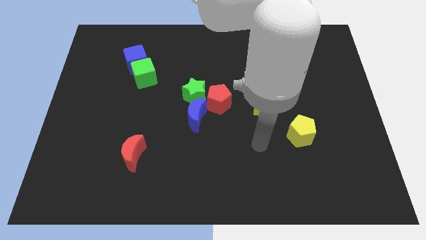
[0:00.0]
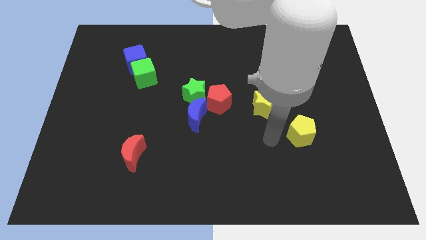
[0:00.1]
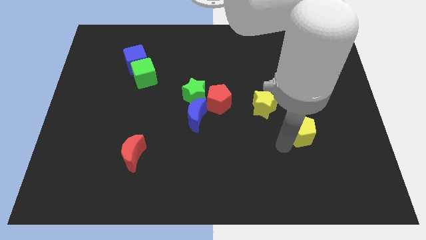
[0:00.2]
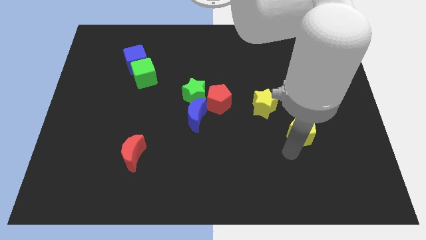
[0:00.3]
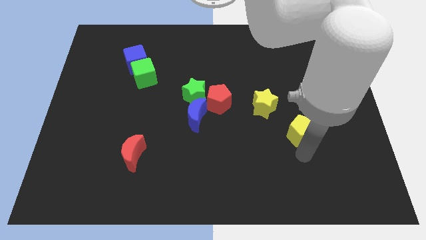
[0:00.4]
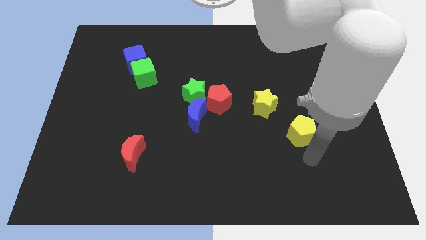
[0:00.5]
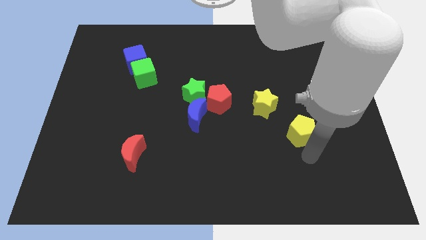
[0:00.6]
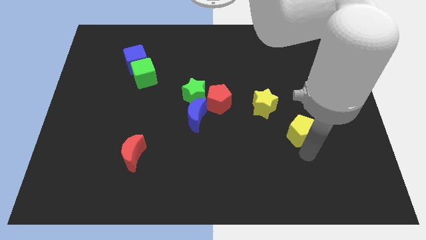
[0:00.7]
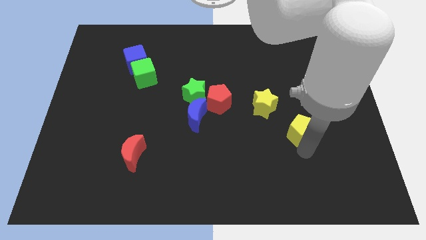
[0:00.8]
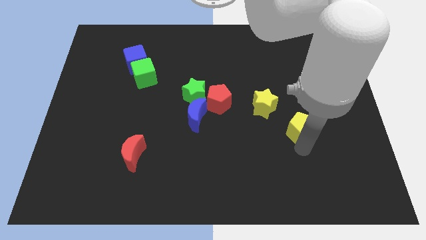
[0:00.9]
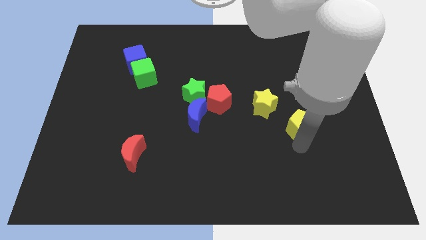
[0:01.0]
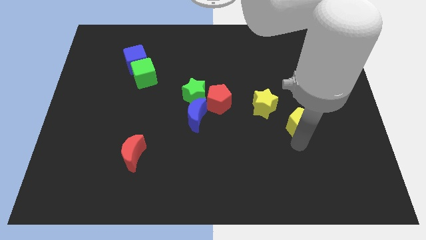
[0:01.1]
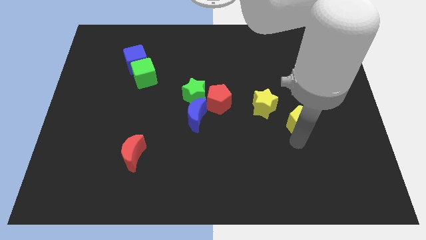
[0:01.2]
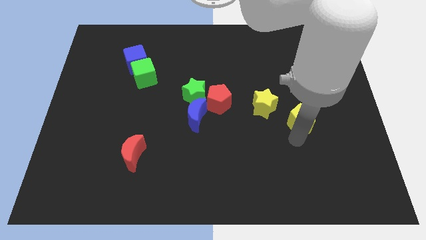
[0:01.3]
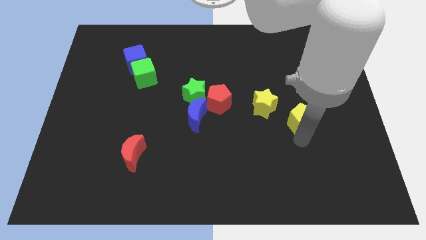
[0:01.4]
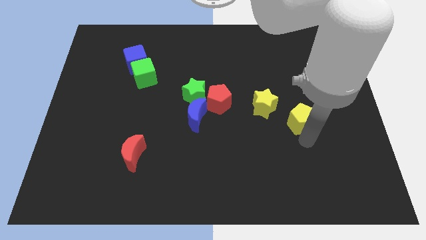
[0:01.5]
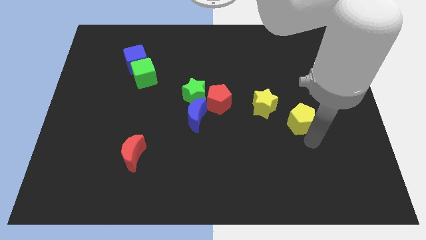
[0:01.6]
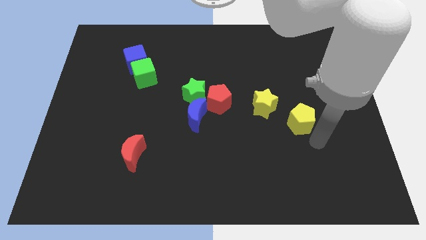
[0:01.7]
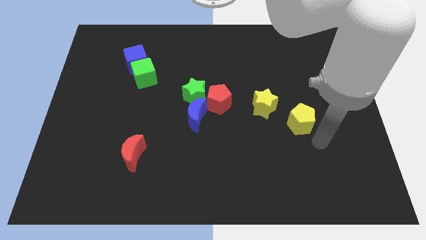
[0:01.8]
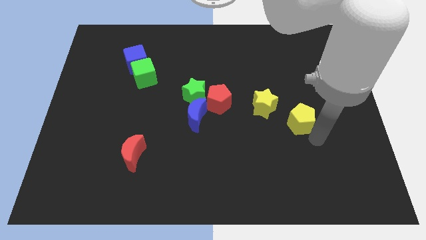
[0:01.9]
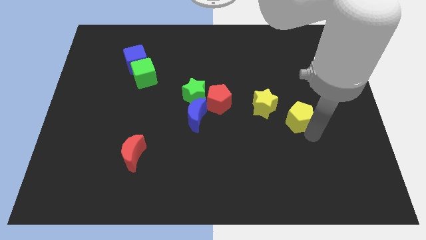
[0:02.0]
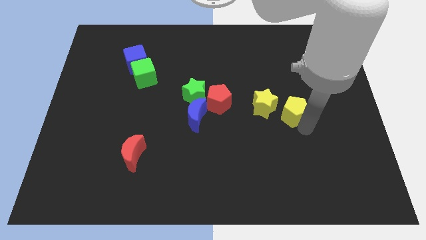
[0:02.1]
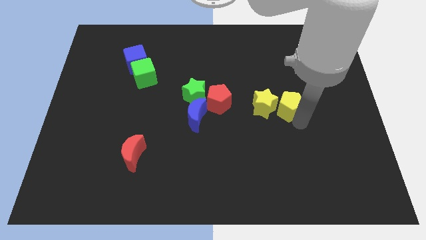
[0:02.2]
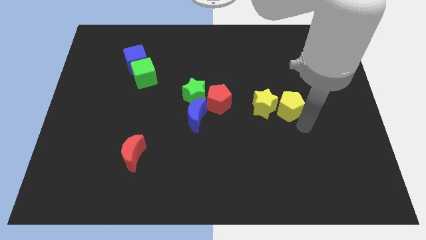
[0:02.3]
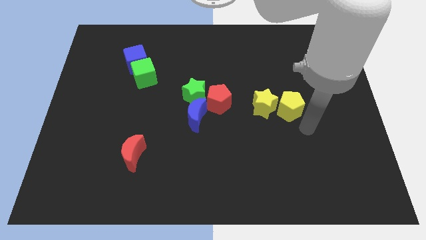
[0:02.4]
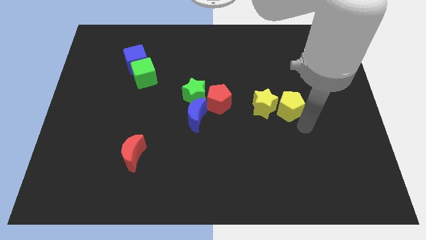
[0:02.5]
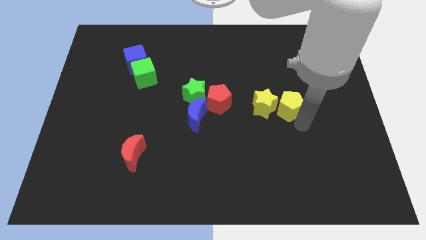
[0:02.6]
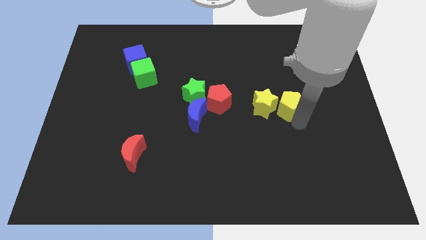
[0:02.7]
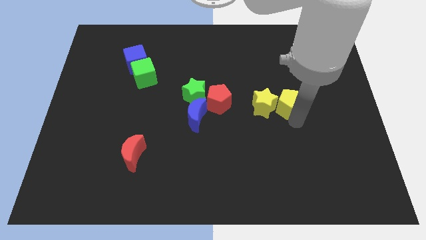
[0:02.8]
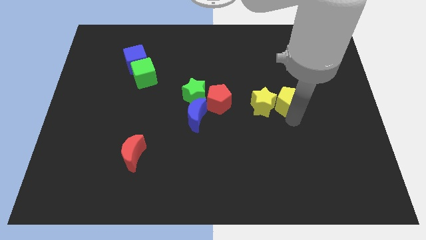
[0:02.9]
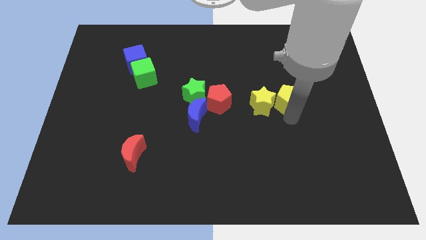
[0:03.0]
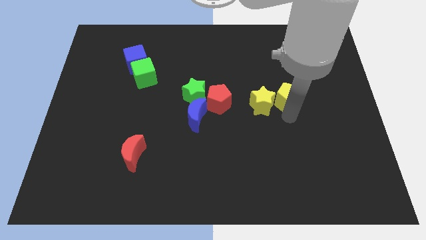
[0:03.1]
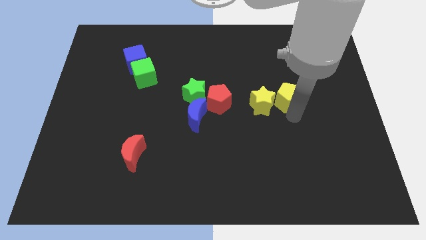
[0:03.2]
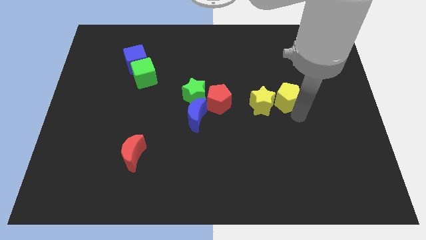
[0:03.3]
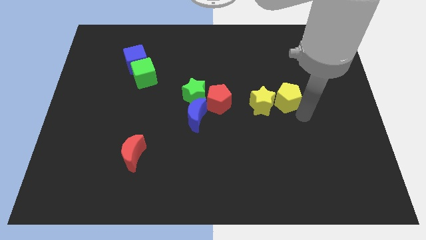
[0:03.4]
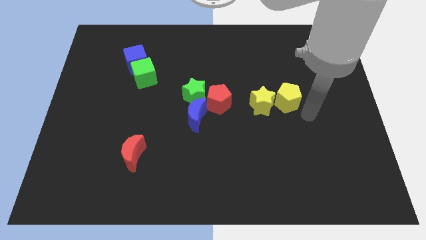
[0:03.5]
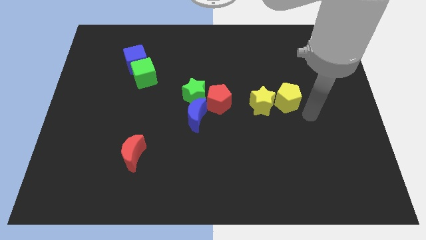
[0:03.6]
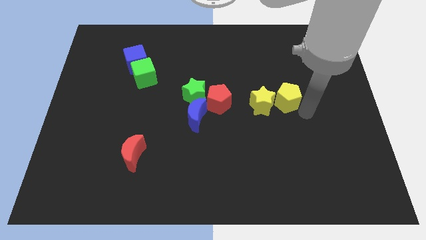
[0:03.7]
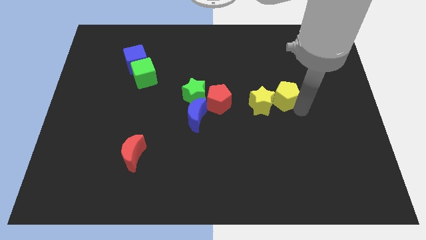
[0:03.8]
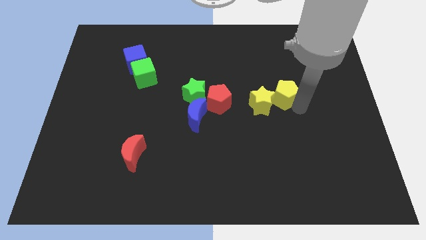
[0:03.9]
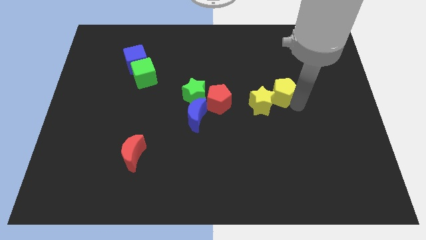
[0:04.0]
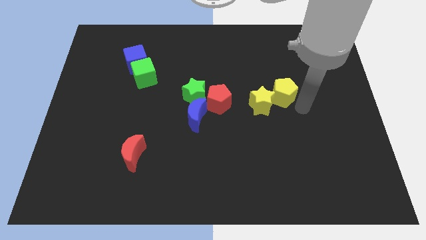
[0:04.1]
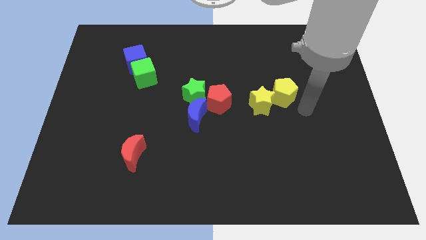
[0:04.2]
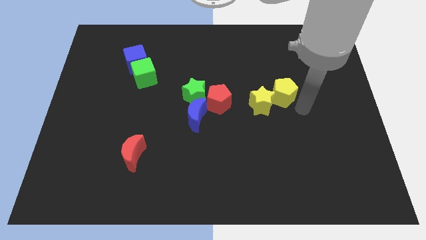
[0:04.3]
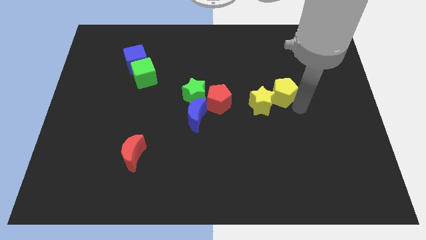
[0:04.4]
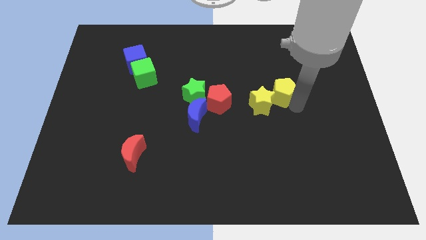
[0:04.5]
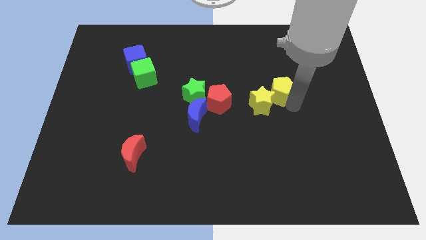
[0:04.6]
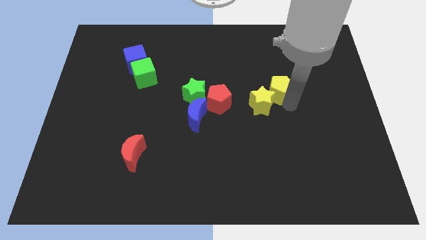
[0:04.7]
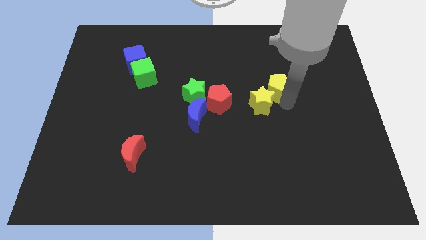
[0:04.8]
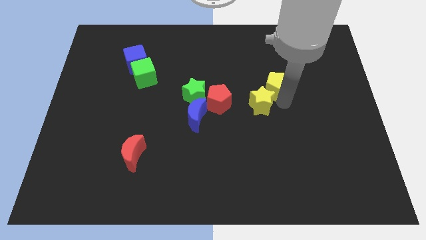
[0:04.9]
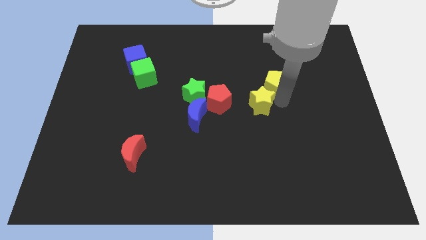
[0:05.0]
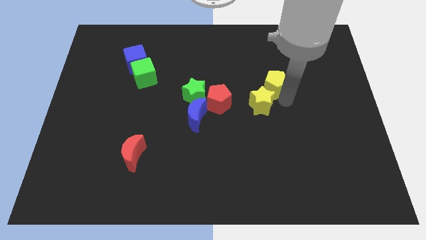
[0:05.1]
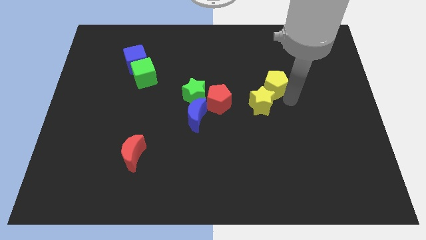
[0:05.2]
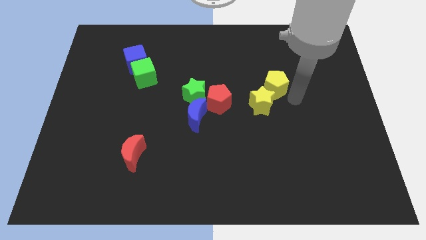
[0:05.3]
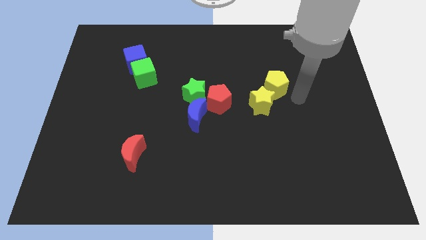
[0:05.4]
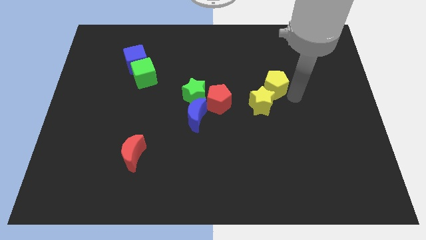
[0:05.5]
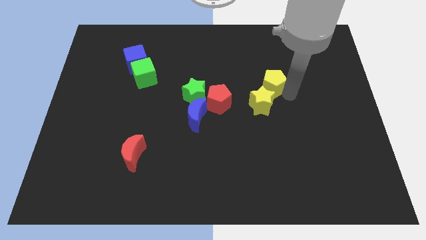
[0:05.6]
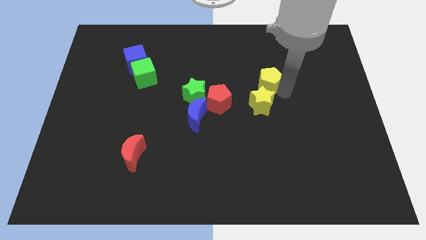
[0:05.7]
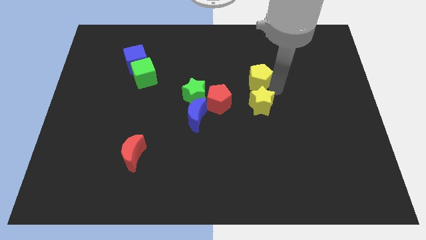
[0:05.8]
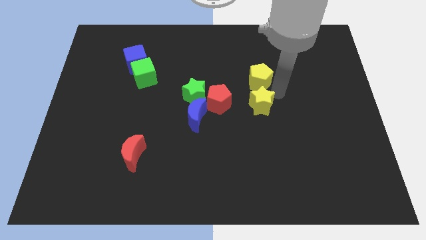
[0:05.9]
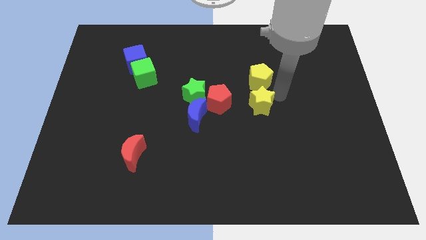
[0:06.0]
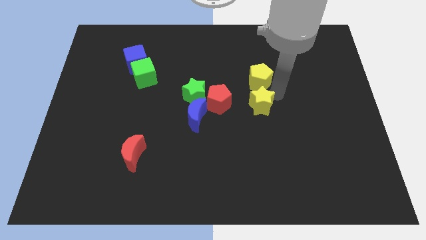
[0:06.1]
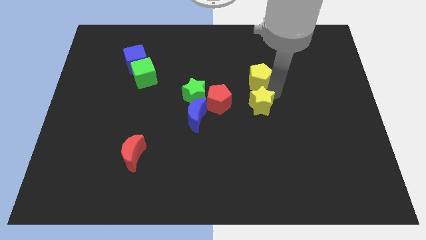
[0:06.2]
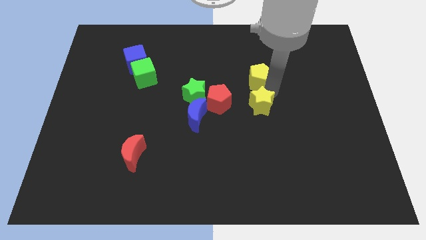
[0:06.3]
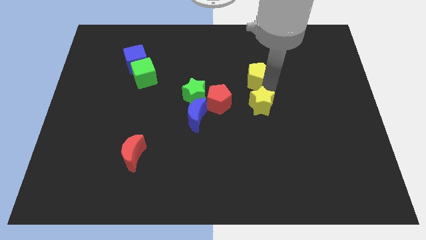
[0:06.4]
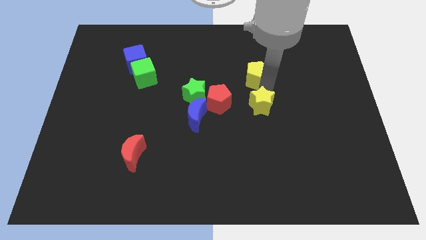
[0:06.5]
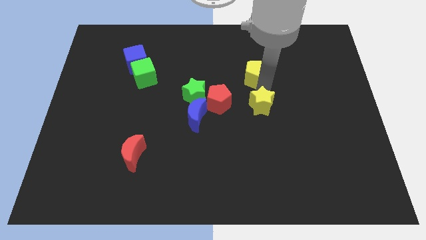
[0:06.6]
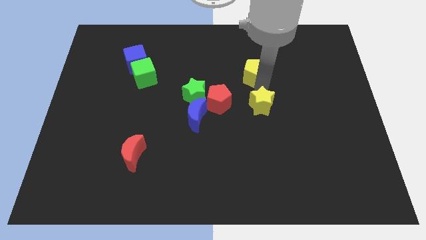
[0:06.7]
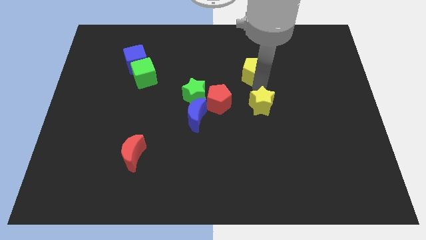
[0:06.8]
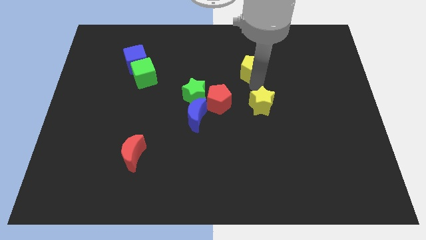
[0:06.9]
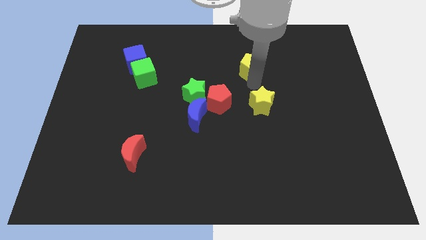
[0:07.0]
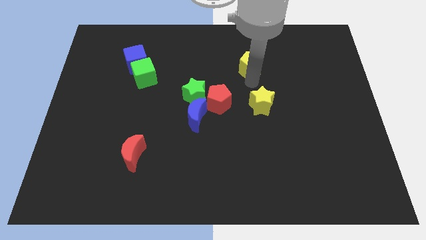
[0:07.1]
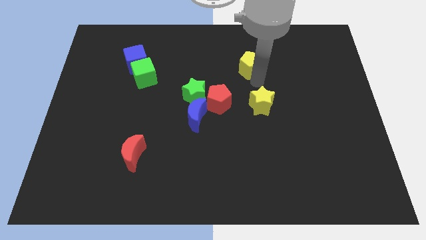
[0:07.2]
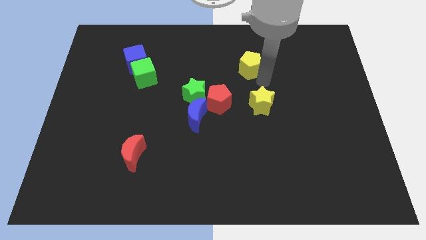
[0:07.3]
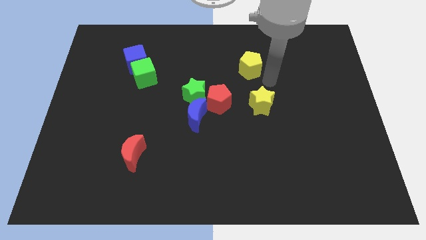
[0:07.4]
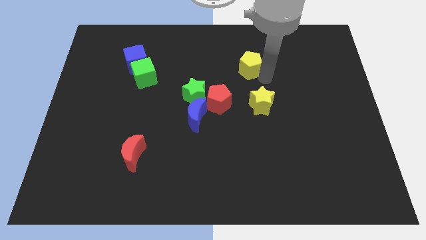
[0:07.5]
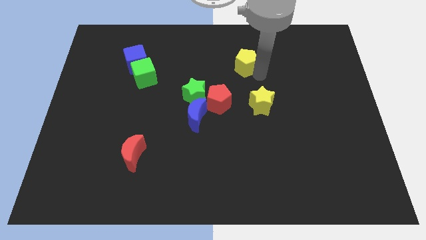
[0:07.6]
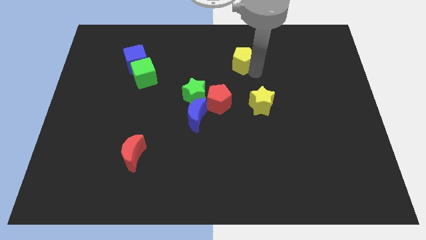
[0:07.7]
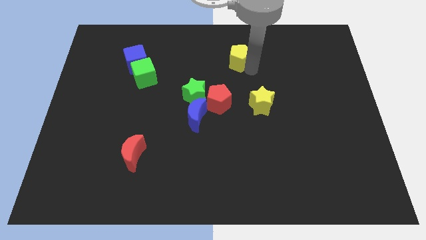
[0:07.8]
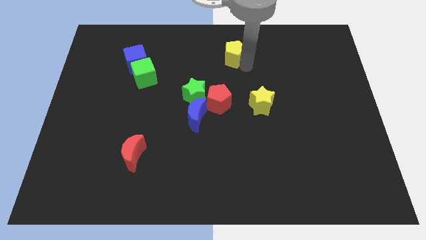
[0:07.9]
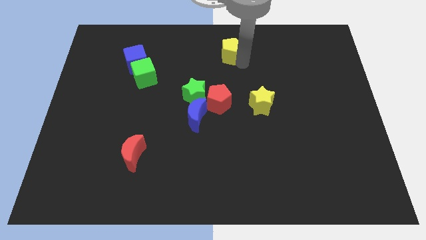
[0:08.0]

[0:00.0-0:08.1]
slide the yellow pentagon to the top
